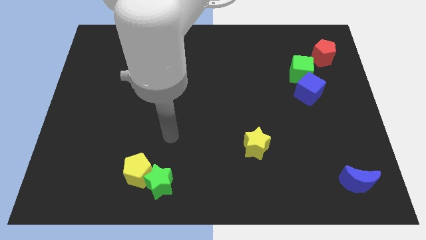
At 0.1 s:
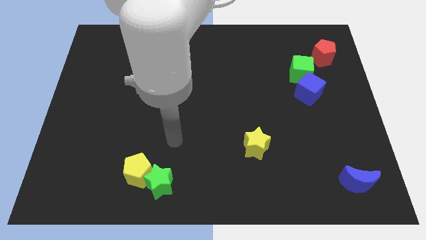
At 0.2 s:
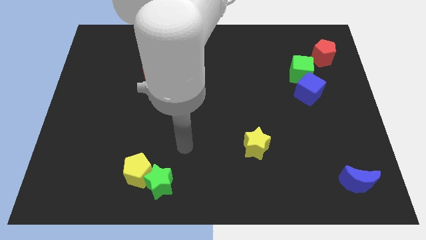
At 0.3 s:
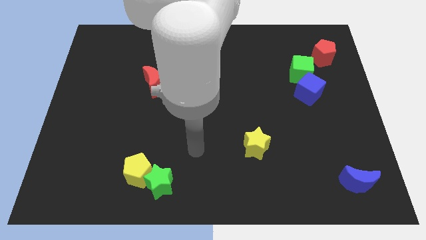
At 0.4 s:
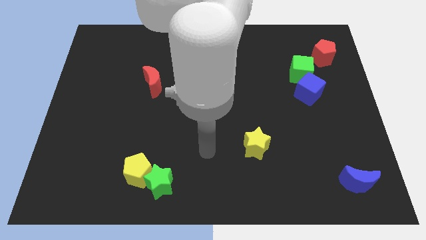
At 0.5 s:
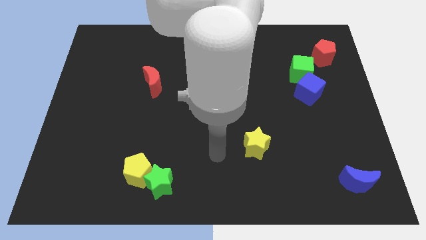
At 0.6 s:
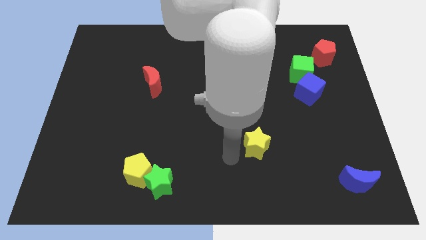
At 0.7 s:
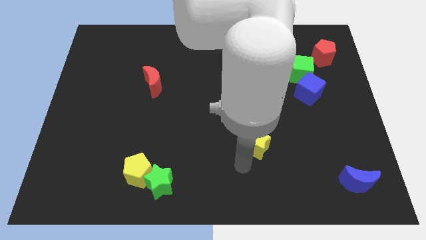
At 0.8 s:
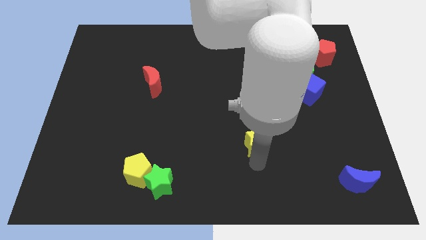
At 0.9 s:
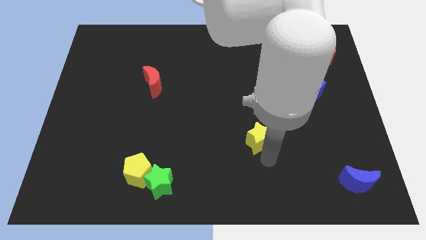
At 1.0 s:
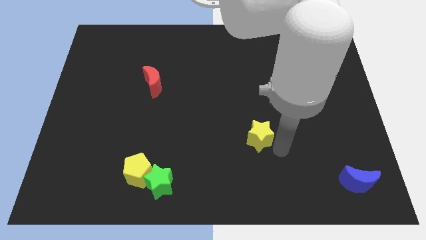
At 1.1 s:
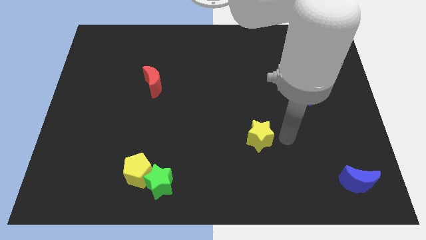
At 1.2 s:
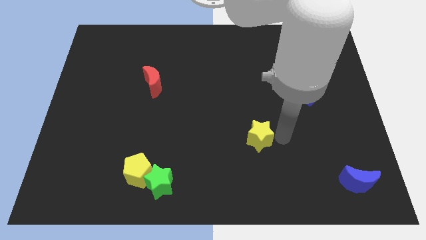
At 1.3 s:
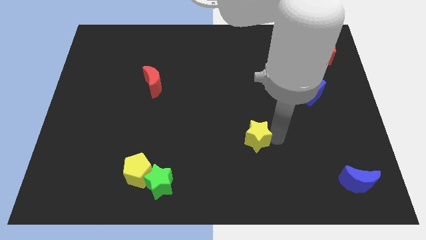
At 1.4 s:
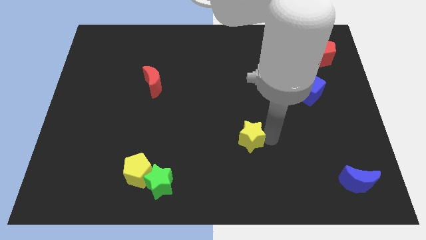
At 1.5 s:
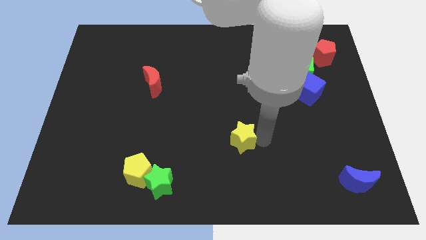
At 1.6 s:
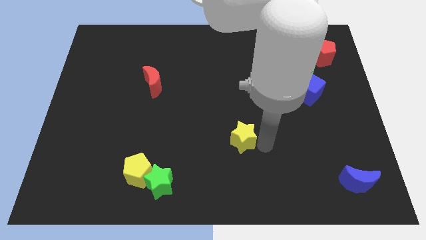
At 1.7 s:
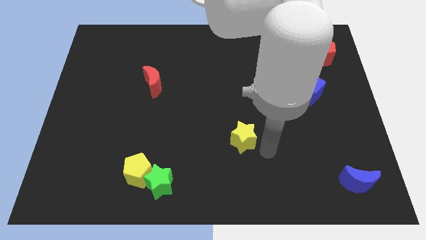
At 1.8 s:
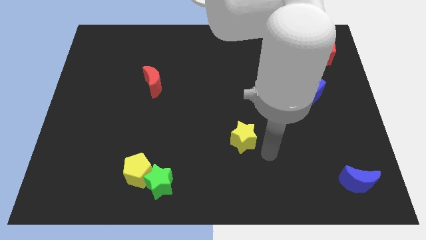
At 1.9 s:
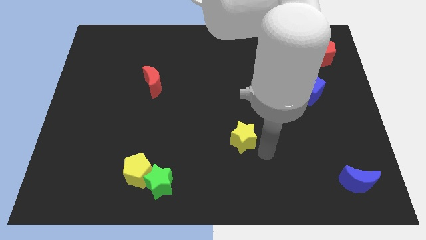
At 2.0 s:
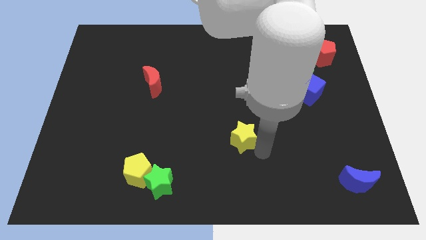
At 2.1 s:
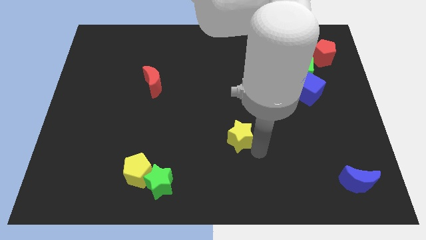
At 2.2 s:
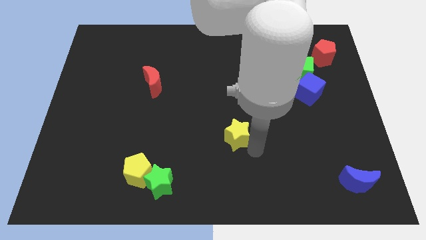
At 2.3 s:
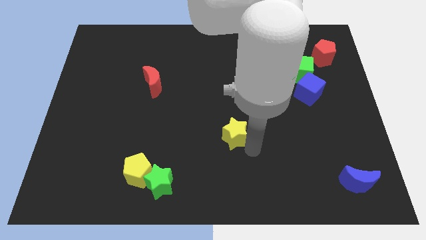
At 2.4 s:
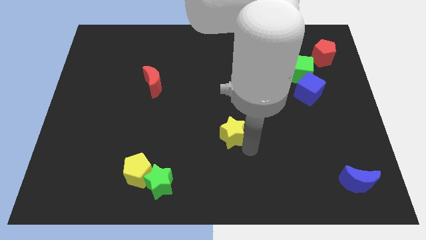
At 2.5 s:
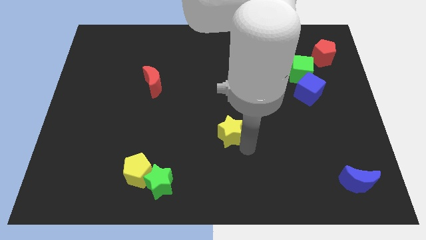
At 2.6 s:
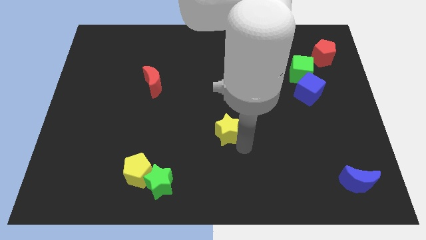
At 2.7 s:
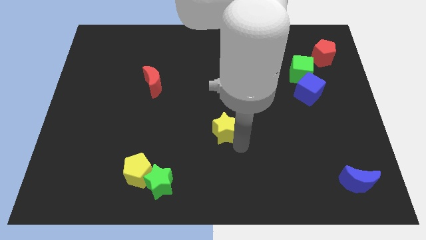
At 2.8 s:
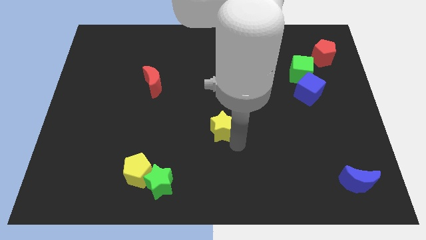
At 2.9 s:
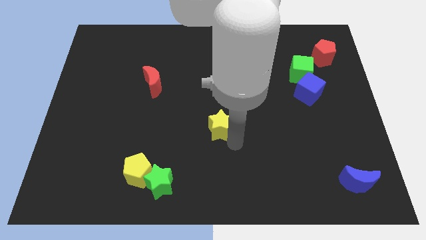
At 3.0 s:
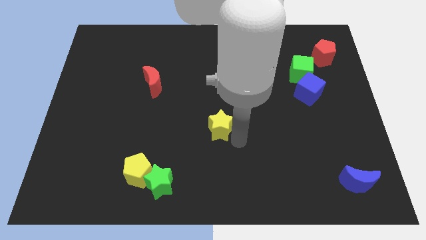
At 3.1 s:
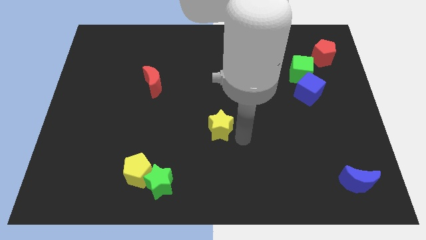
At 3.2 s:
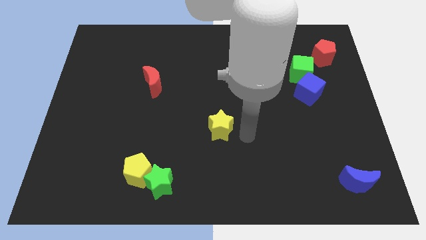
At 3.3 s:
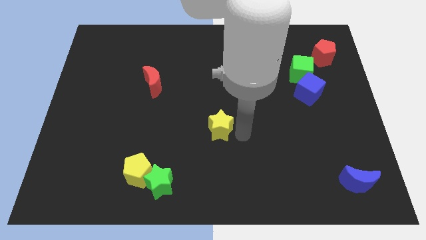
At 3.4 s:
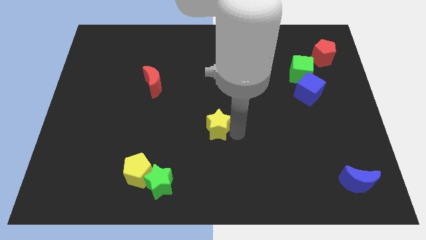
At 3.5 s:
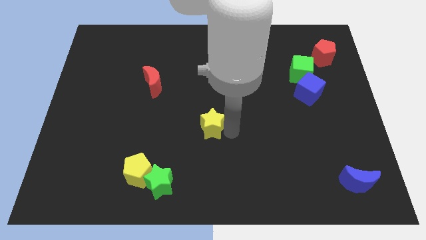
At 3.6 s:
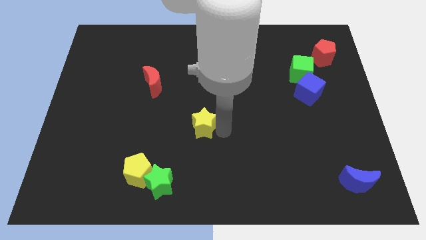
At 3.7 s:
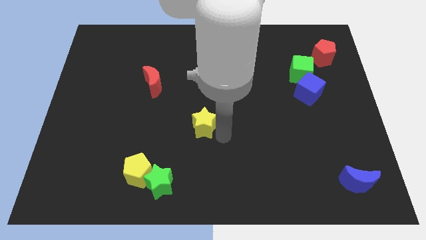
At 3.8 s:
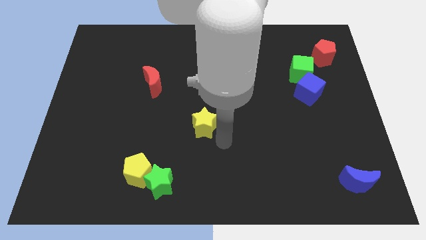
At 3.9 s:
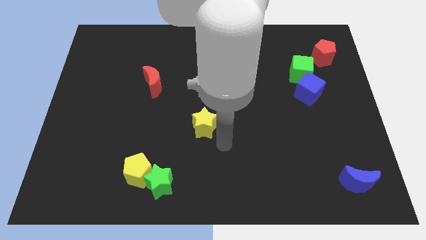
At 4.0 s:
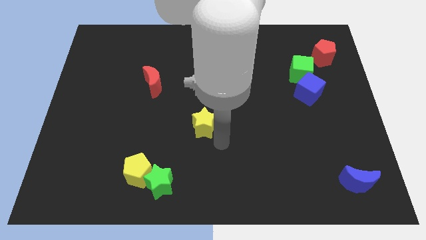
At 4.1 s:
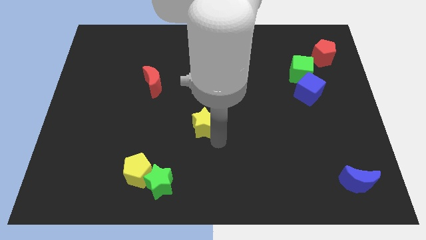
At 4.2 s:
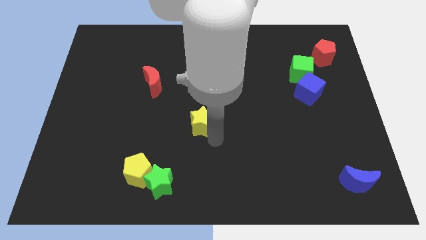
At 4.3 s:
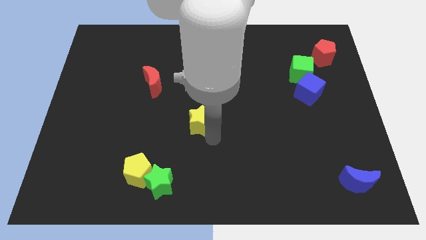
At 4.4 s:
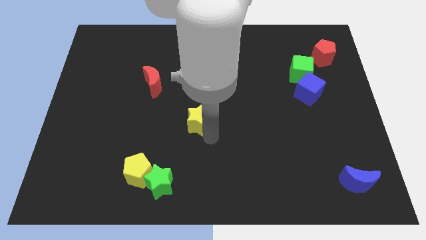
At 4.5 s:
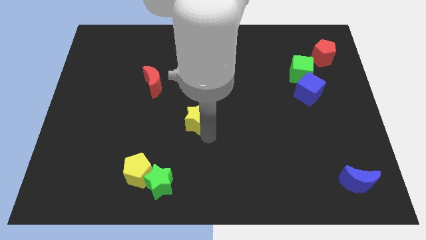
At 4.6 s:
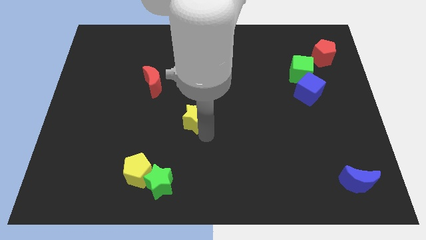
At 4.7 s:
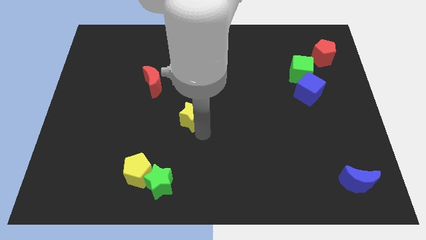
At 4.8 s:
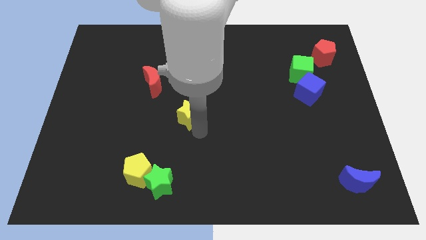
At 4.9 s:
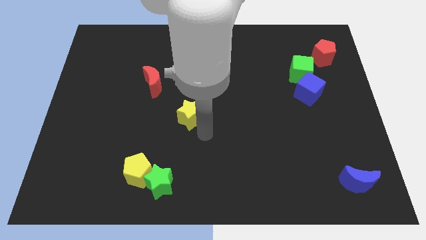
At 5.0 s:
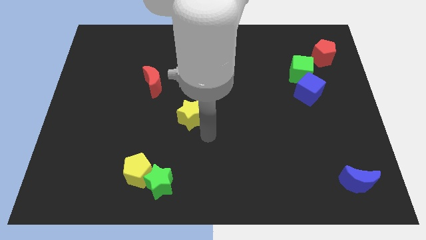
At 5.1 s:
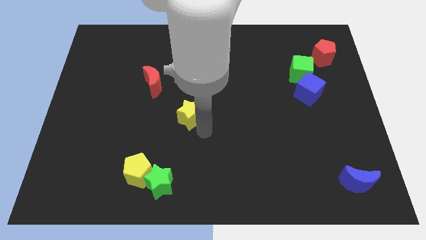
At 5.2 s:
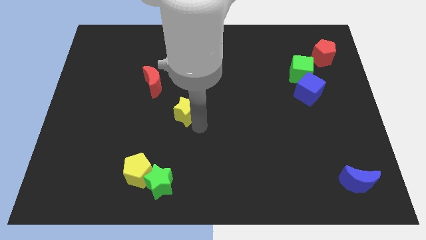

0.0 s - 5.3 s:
put the yellow star to the bottom right side of the red moon

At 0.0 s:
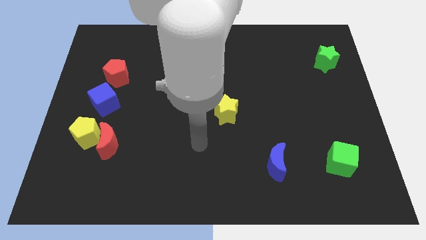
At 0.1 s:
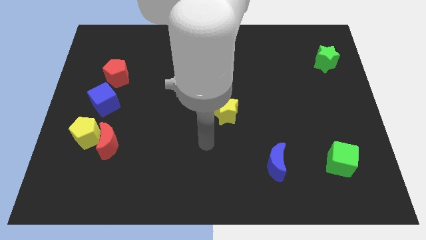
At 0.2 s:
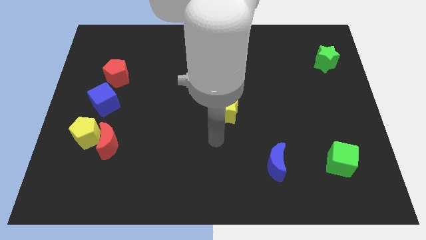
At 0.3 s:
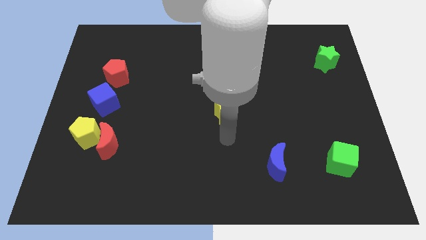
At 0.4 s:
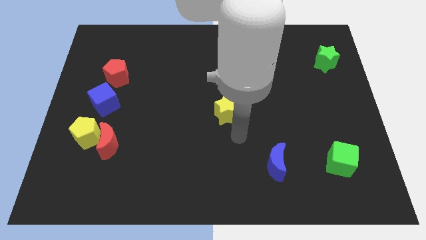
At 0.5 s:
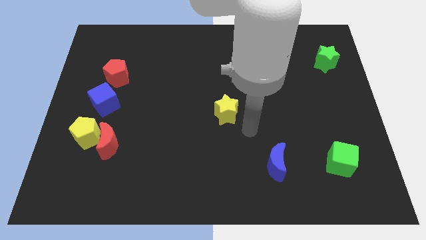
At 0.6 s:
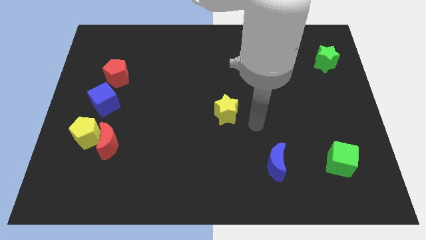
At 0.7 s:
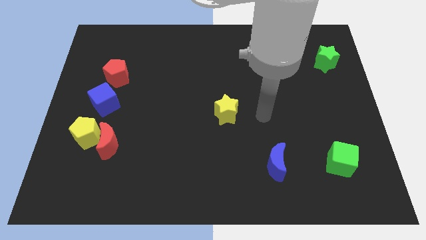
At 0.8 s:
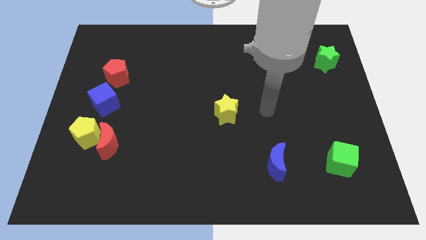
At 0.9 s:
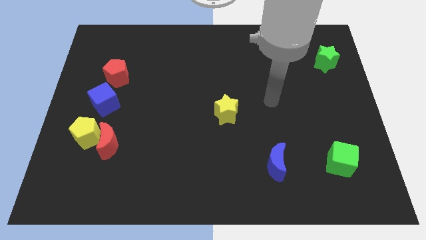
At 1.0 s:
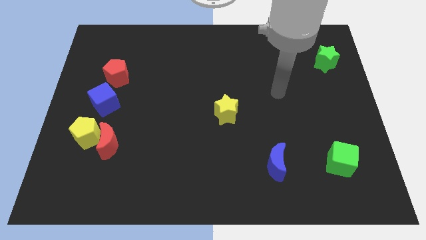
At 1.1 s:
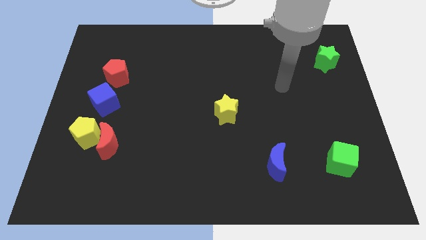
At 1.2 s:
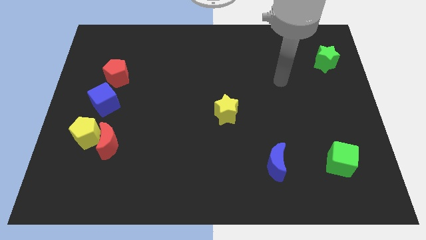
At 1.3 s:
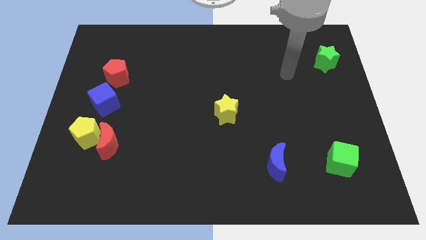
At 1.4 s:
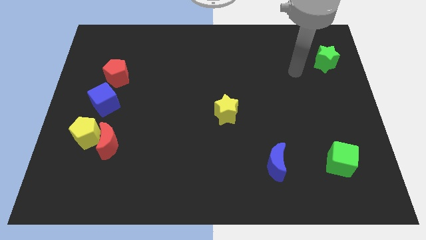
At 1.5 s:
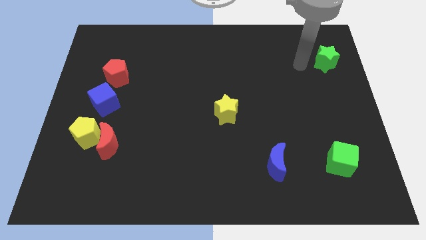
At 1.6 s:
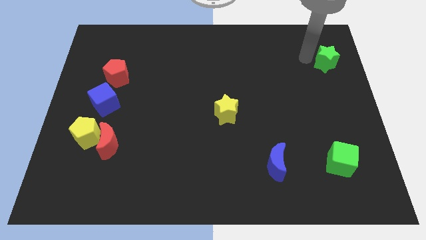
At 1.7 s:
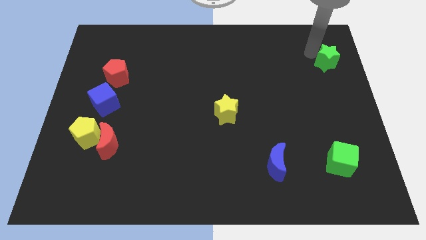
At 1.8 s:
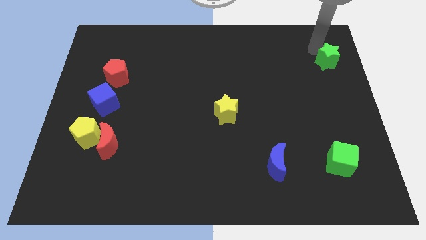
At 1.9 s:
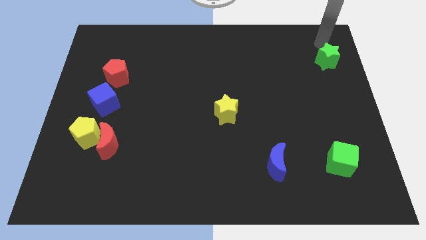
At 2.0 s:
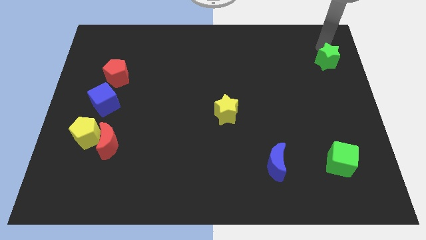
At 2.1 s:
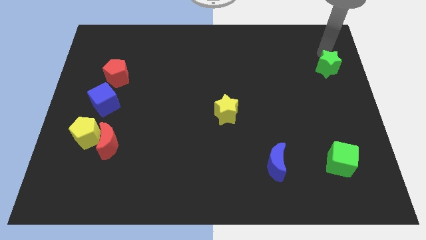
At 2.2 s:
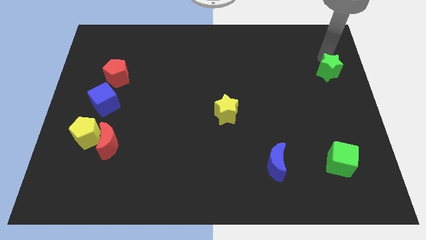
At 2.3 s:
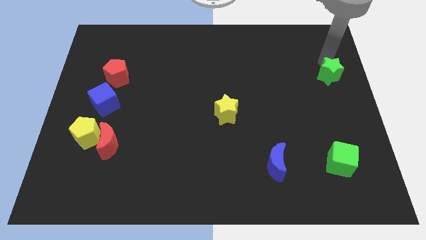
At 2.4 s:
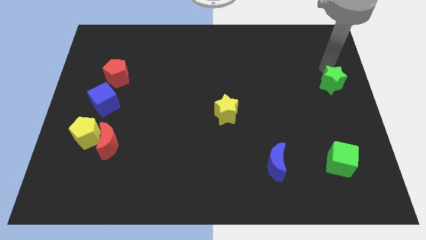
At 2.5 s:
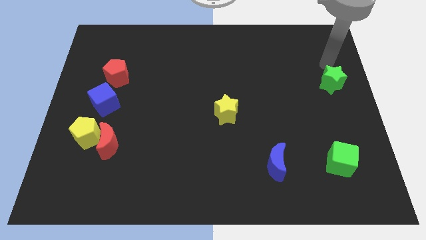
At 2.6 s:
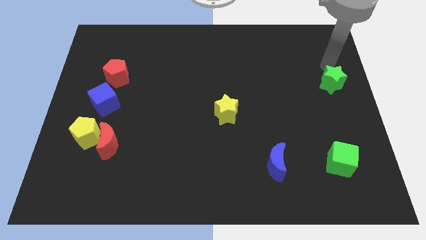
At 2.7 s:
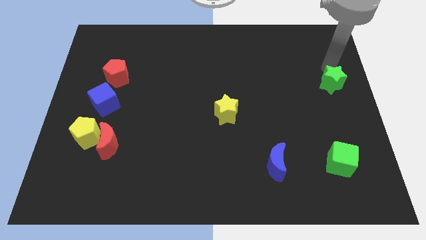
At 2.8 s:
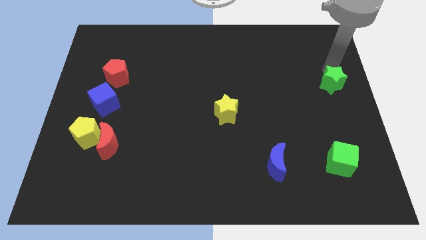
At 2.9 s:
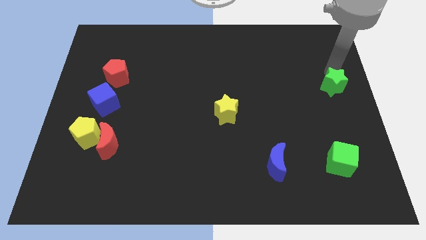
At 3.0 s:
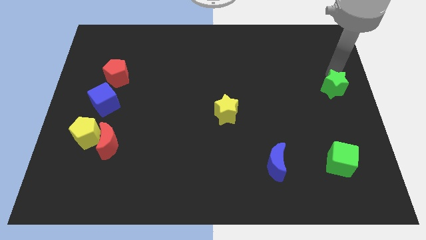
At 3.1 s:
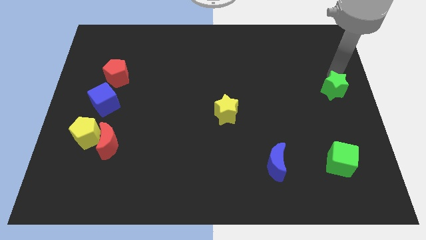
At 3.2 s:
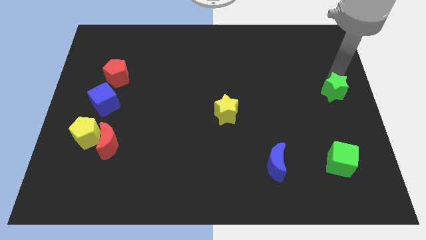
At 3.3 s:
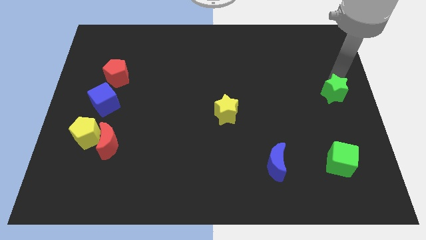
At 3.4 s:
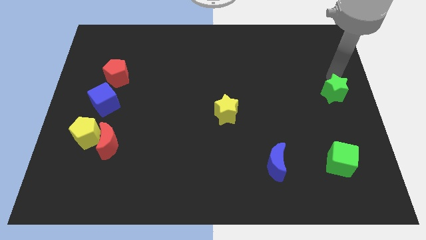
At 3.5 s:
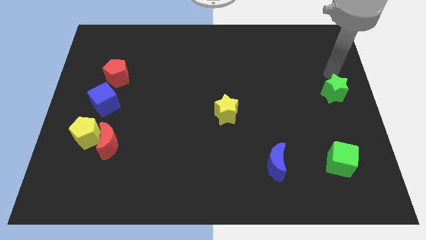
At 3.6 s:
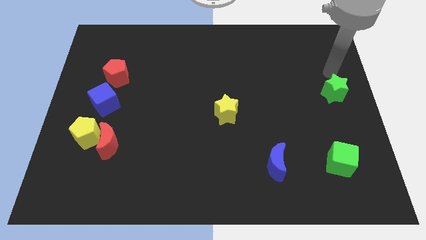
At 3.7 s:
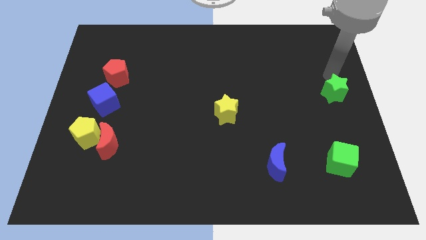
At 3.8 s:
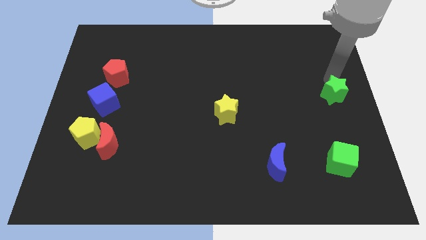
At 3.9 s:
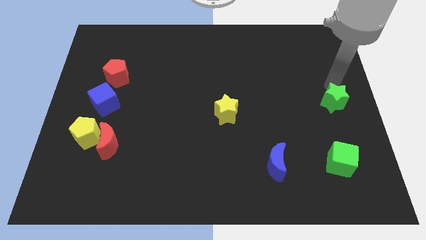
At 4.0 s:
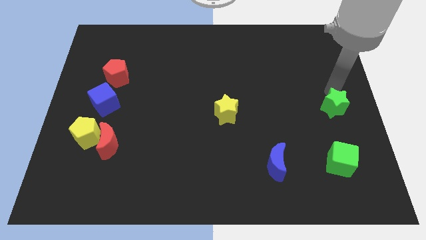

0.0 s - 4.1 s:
slide the green star above the green cube
